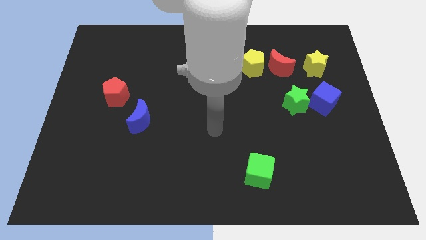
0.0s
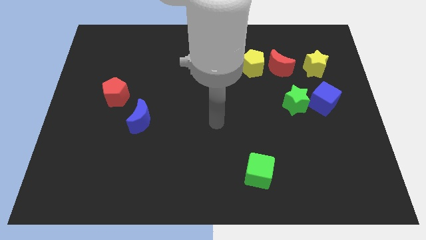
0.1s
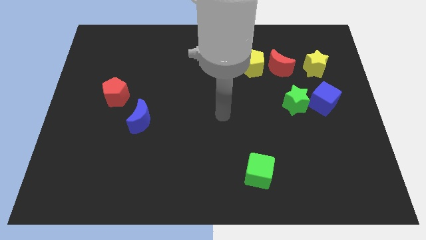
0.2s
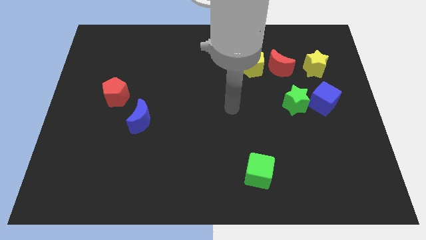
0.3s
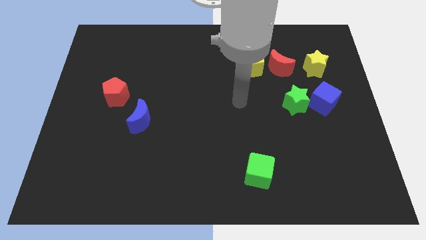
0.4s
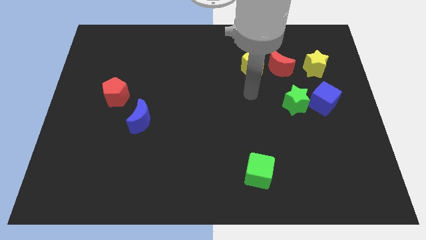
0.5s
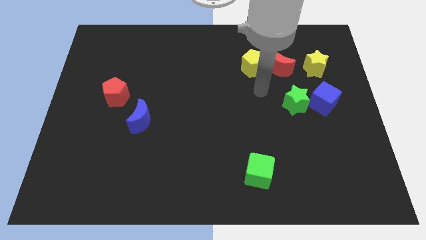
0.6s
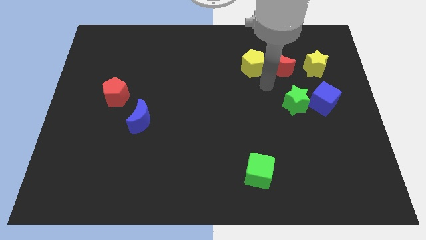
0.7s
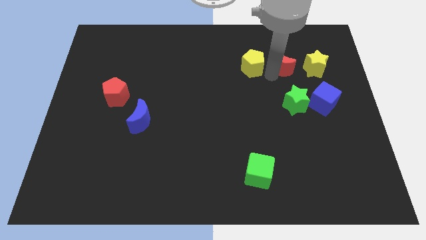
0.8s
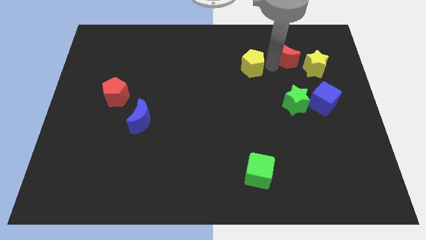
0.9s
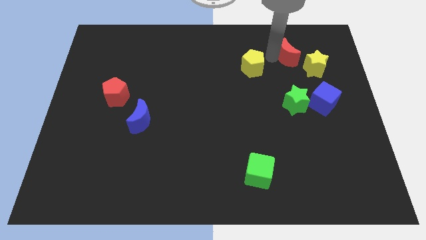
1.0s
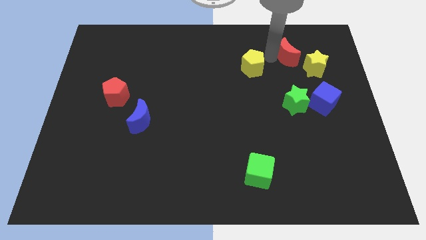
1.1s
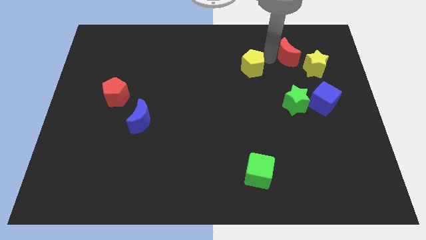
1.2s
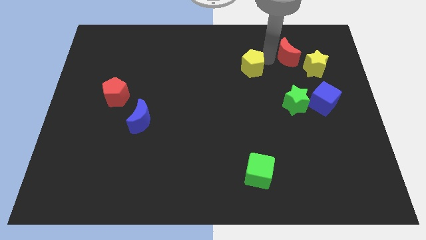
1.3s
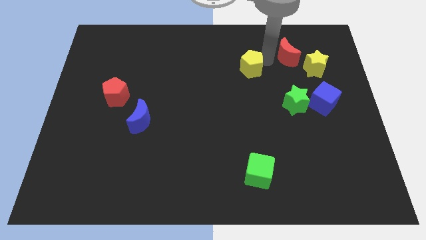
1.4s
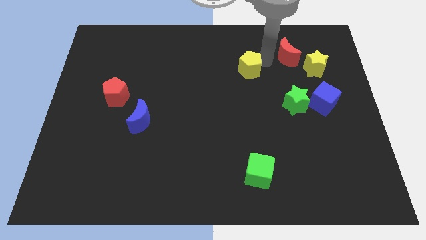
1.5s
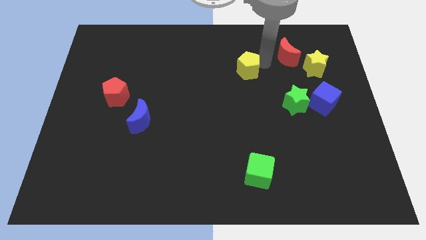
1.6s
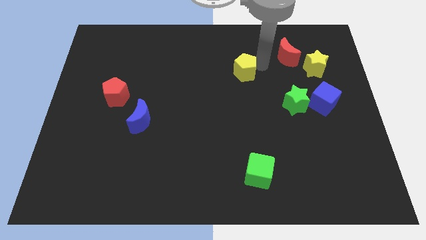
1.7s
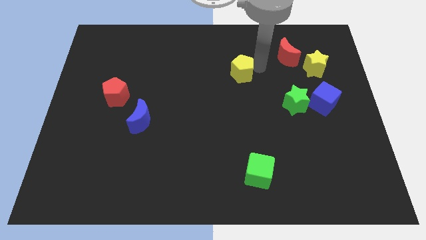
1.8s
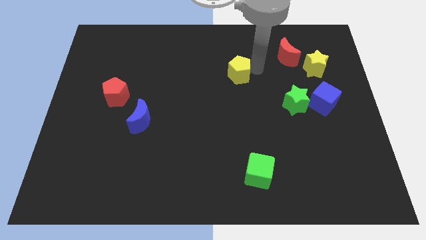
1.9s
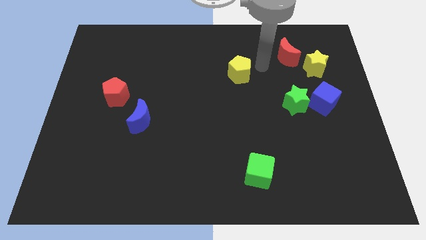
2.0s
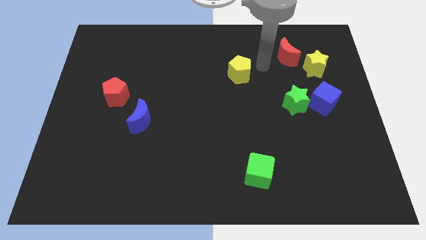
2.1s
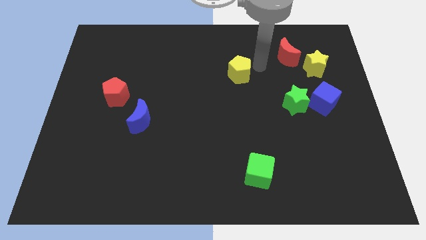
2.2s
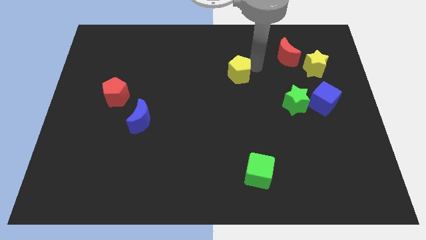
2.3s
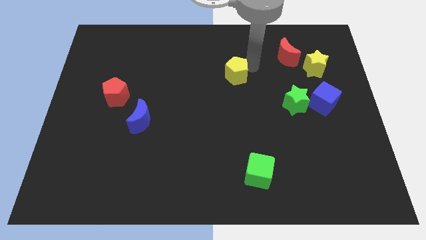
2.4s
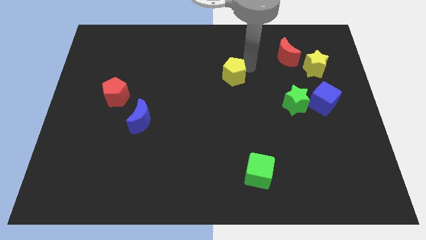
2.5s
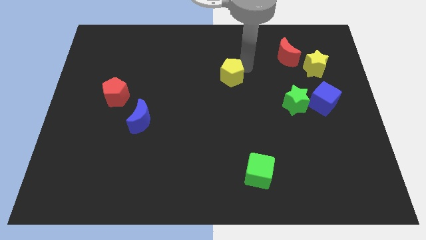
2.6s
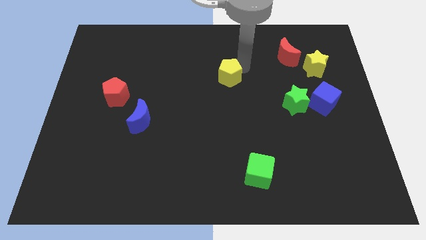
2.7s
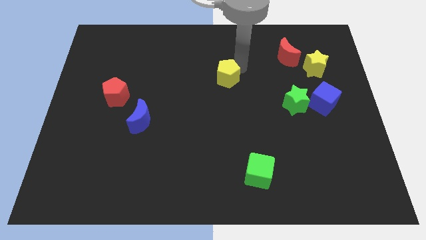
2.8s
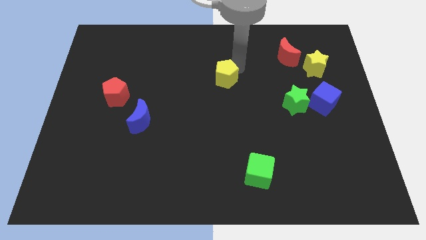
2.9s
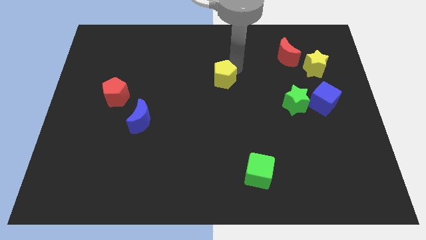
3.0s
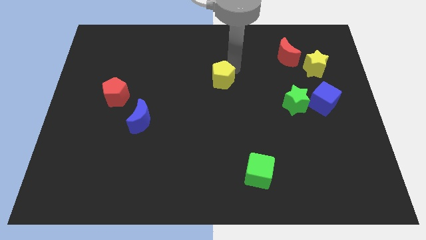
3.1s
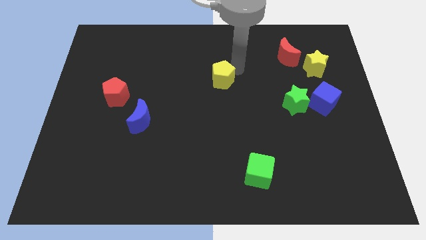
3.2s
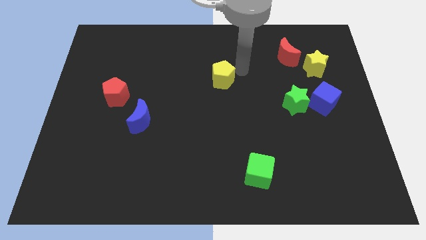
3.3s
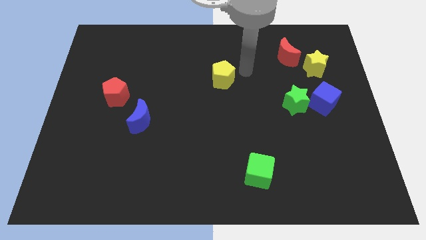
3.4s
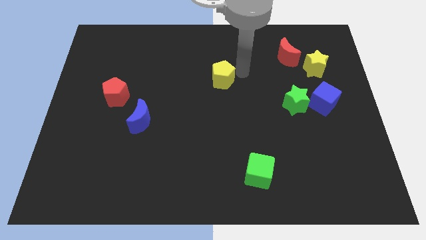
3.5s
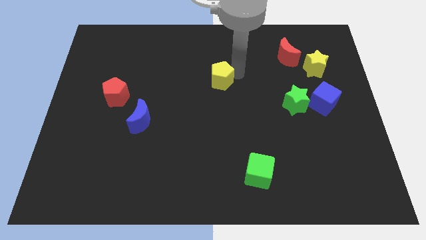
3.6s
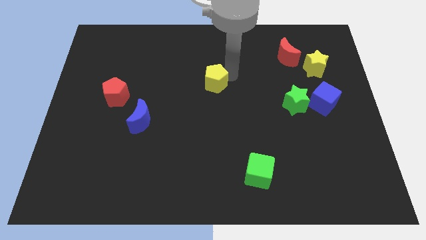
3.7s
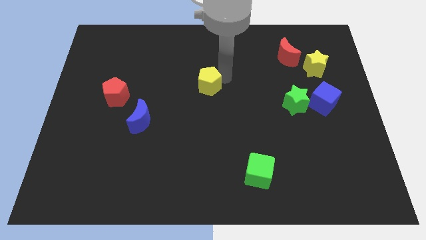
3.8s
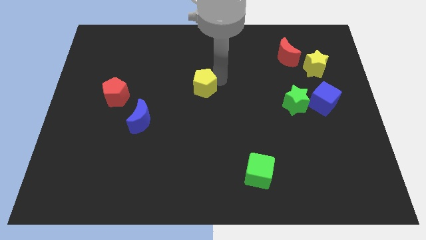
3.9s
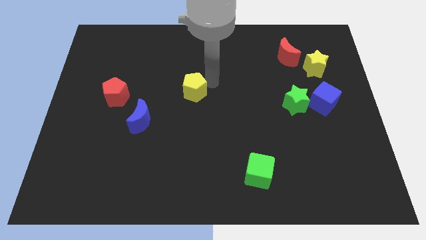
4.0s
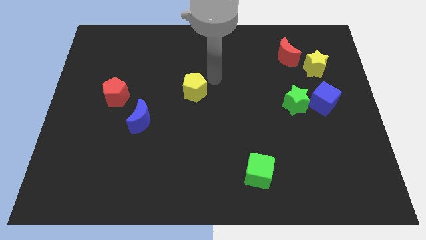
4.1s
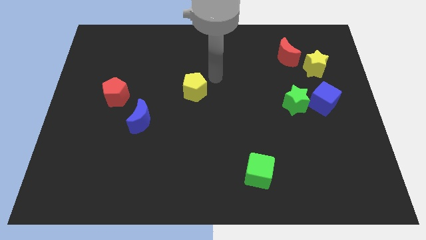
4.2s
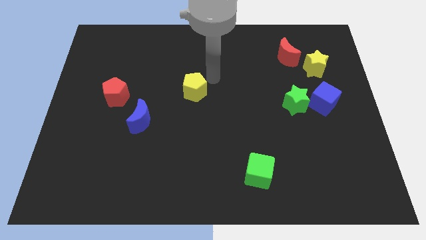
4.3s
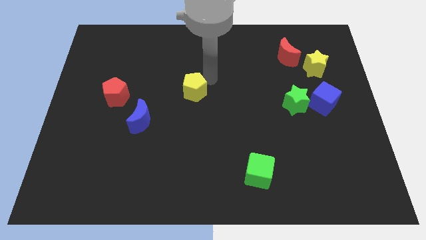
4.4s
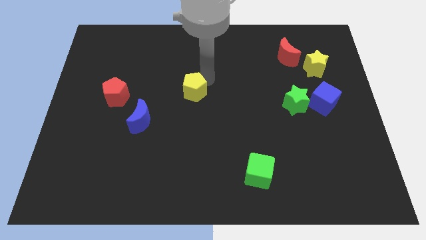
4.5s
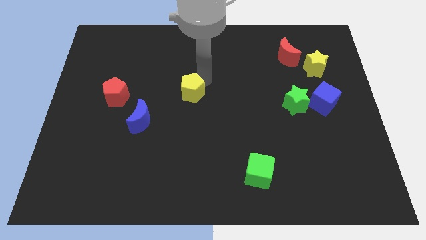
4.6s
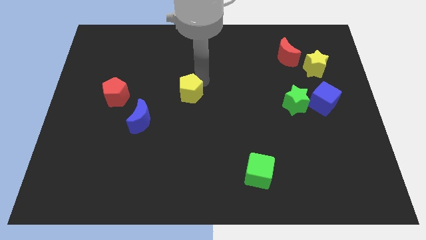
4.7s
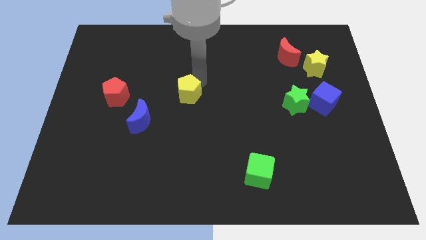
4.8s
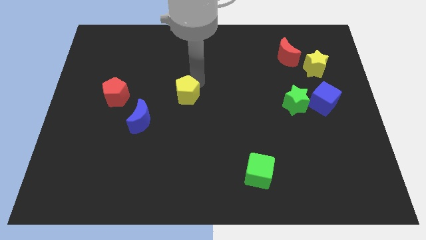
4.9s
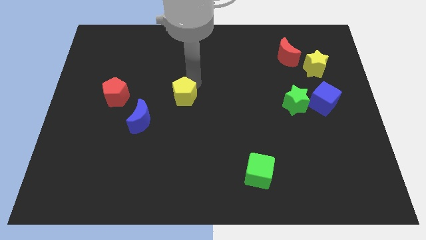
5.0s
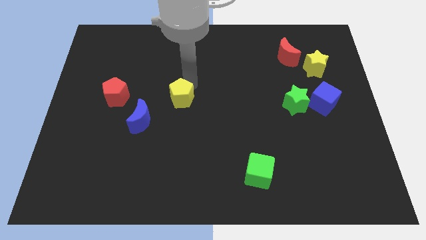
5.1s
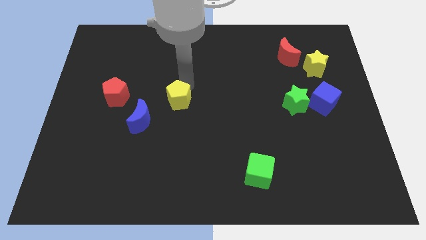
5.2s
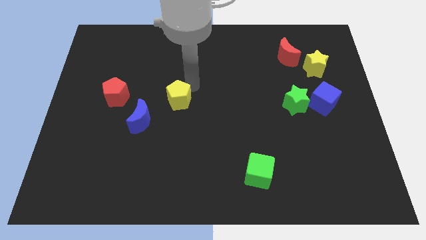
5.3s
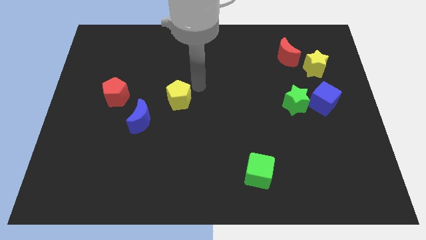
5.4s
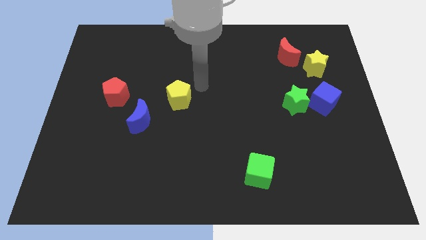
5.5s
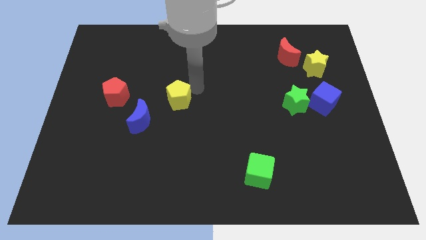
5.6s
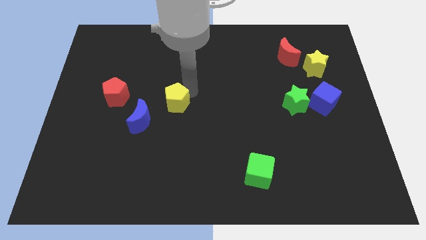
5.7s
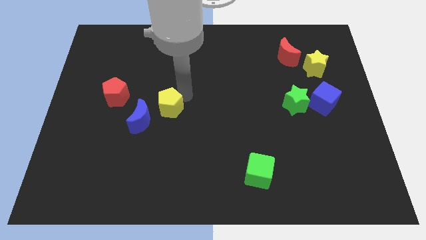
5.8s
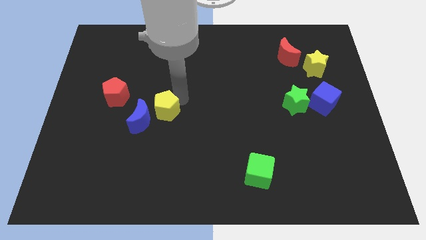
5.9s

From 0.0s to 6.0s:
put the yellow pentagon close to the blue moon
